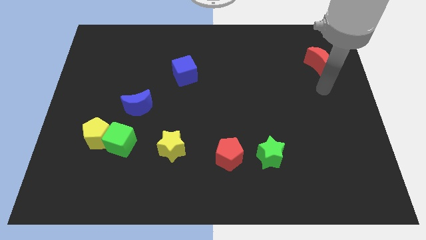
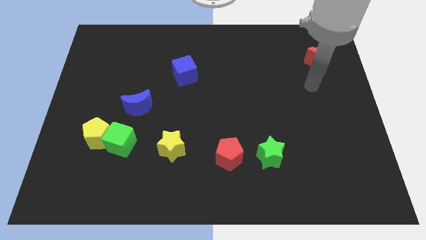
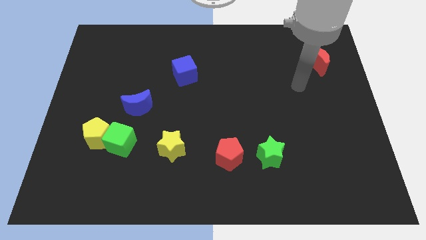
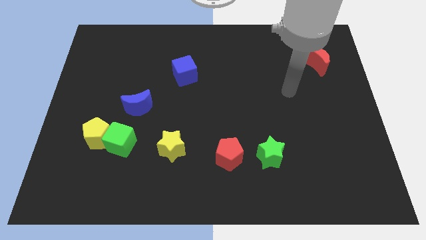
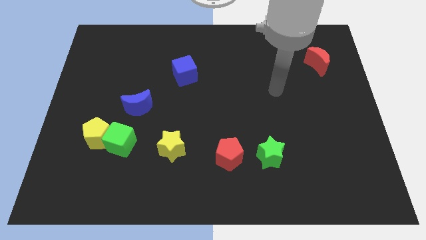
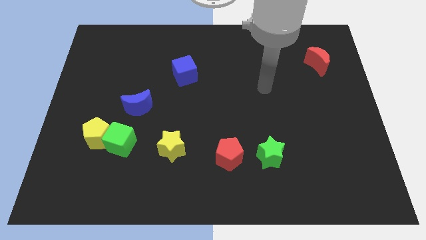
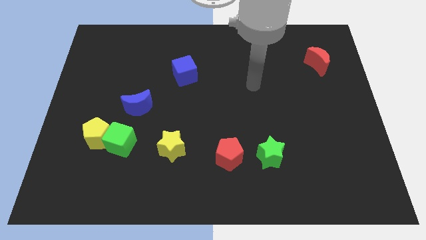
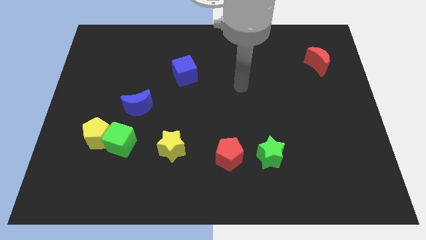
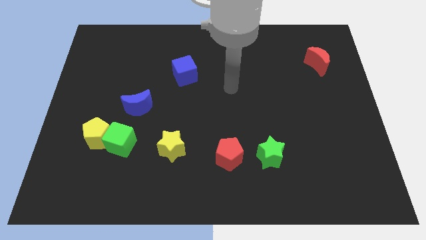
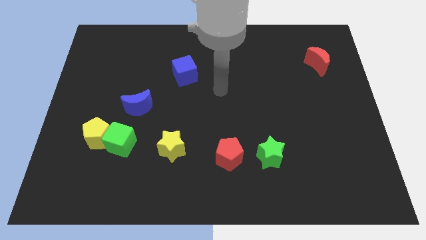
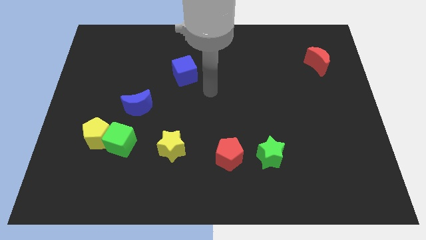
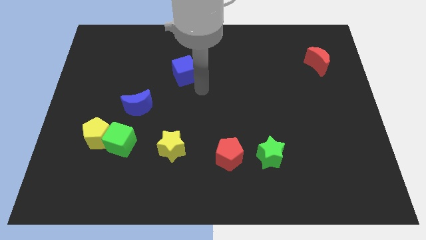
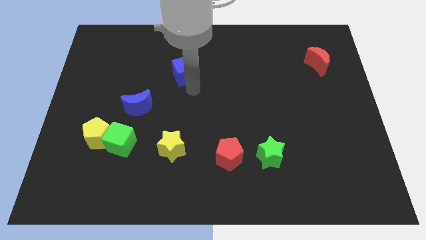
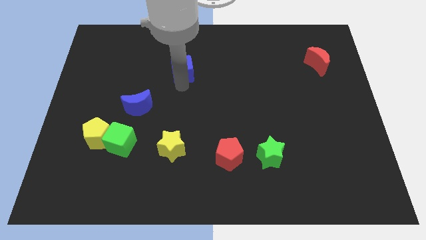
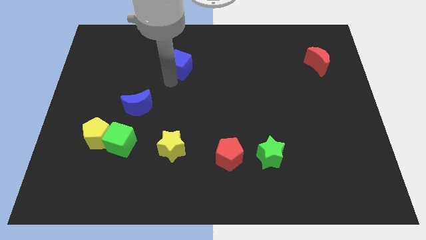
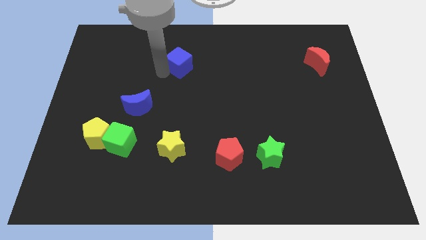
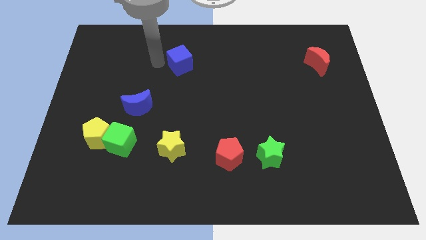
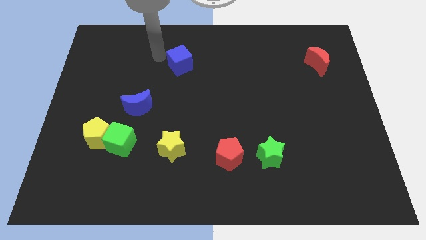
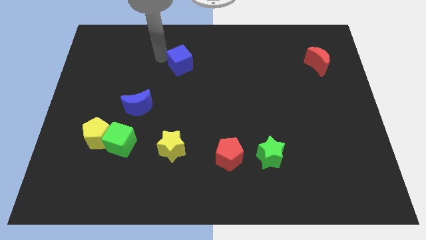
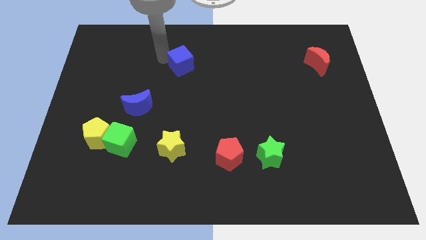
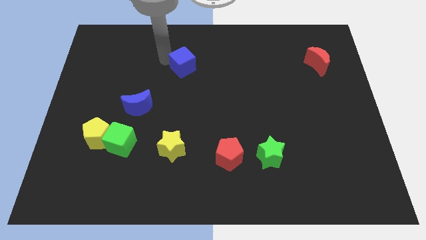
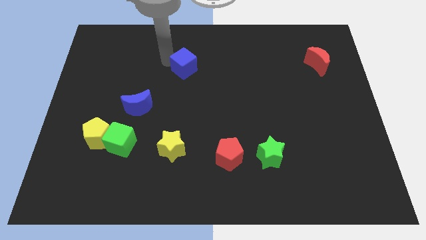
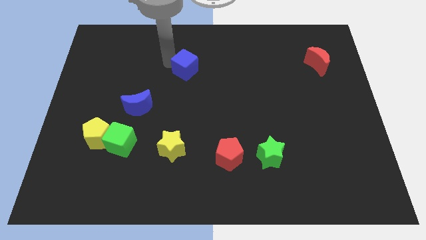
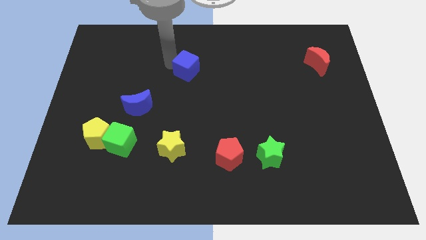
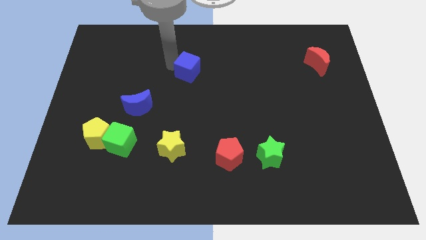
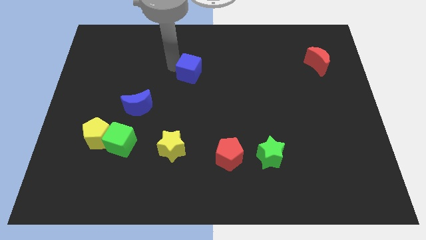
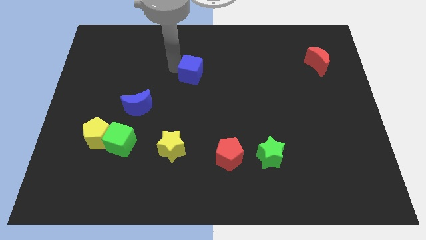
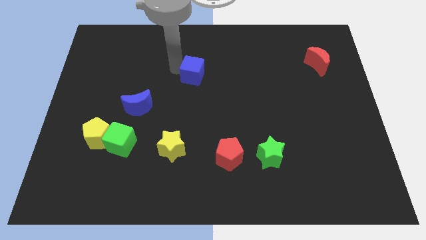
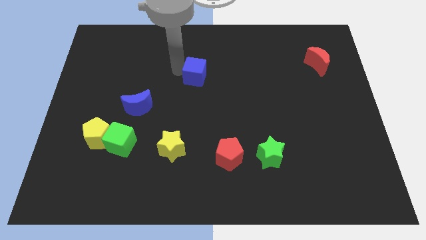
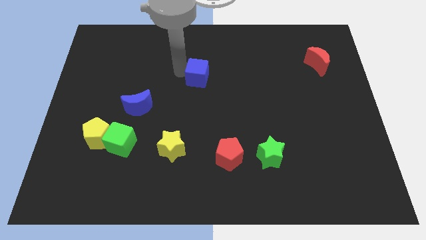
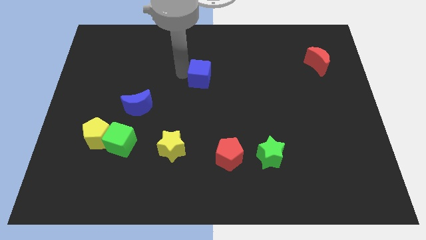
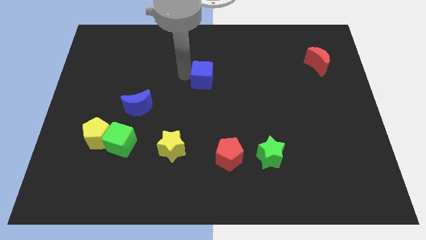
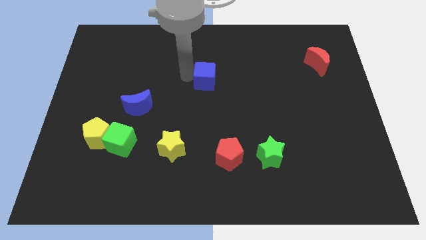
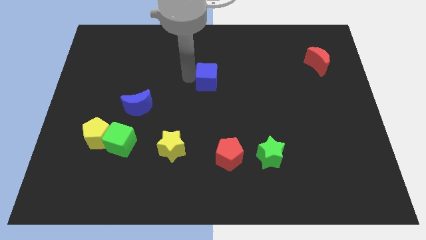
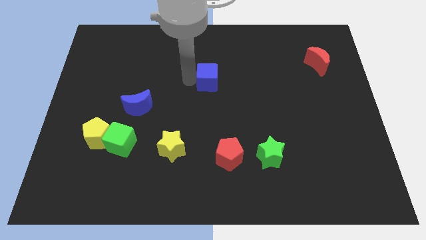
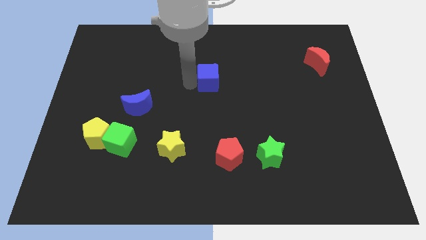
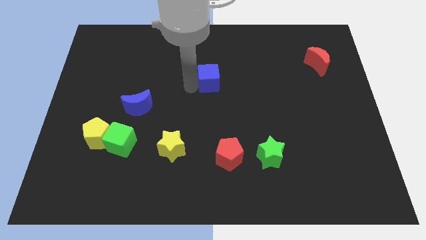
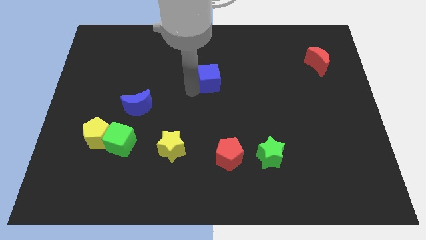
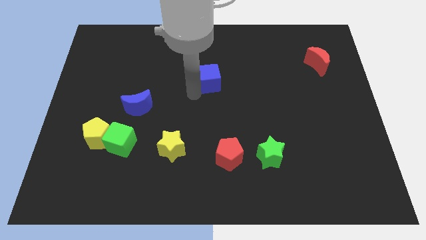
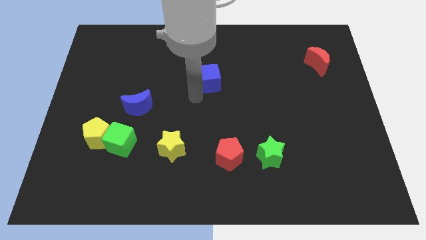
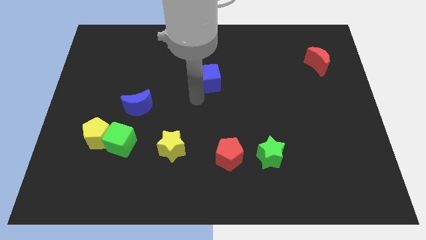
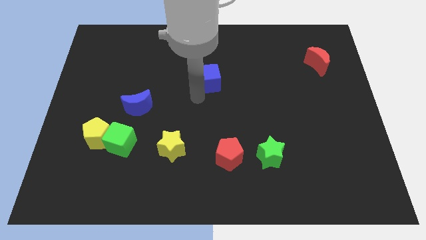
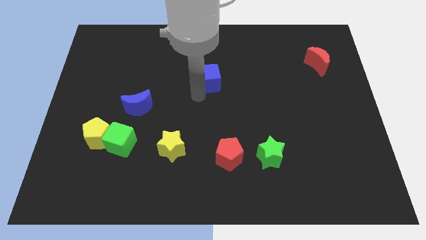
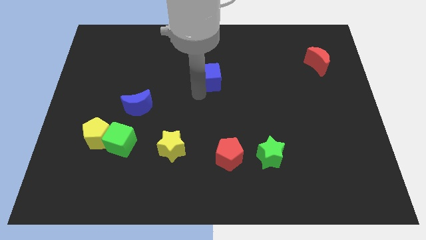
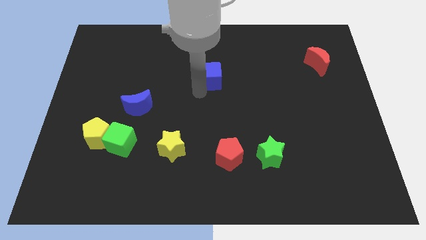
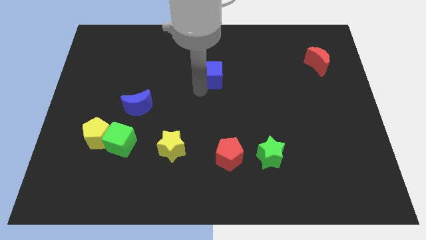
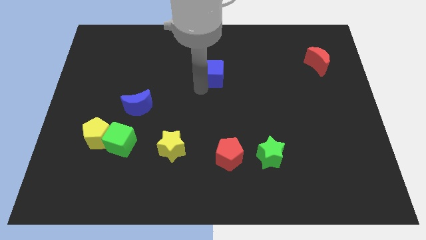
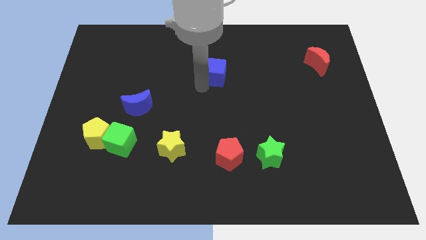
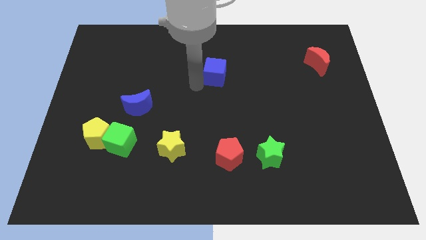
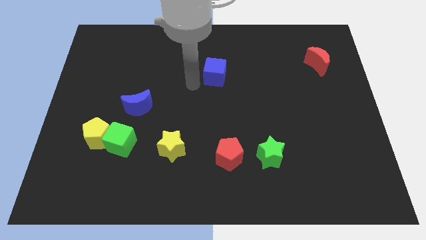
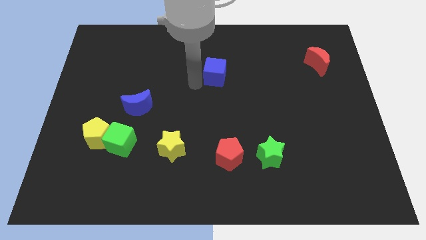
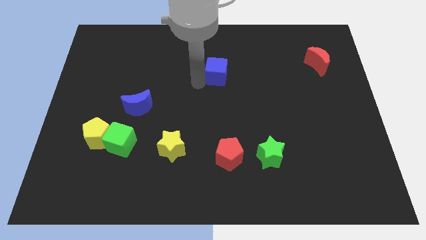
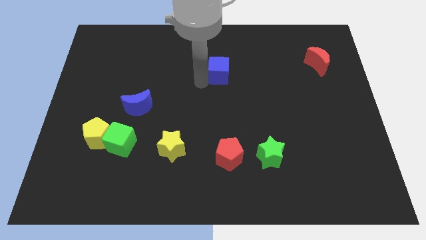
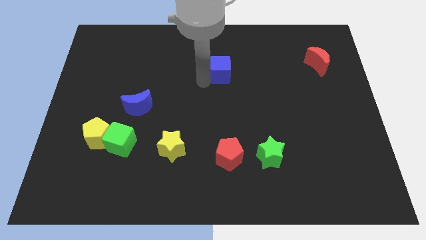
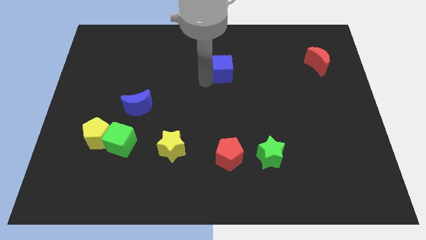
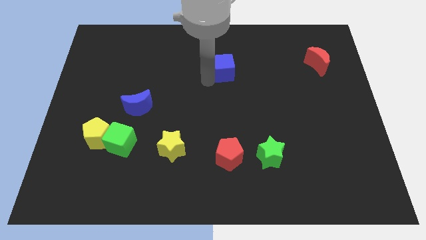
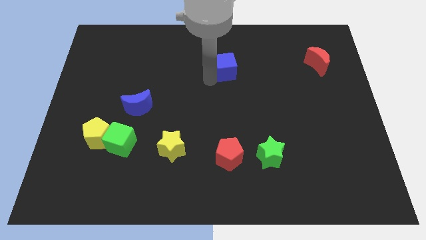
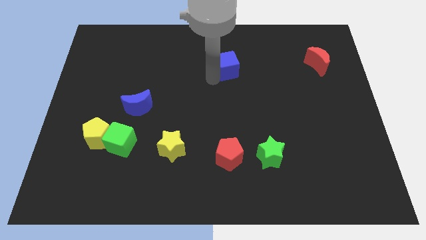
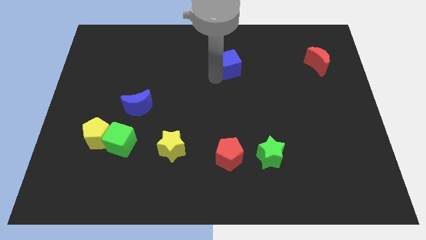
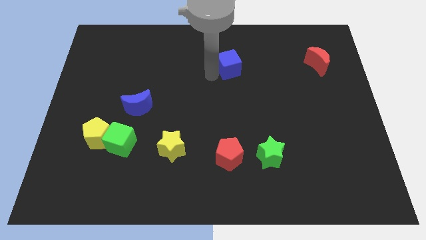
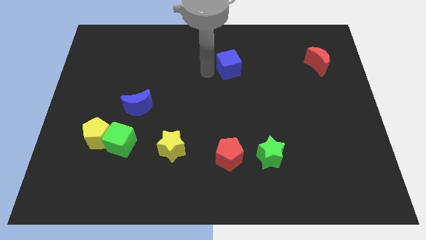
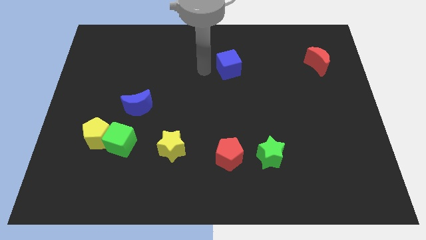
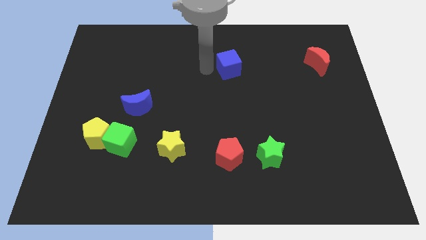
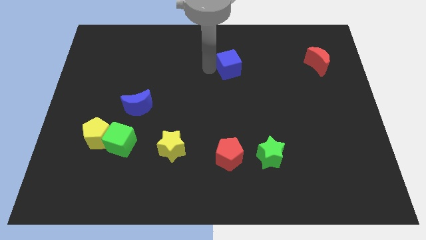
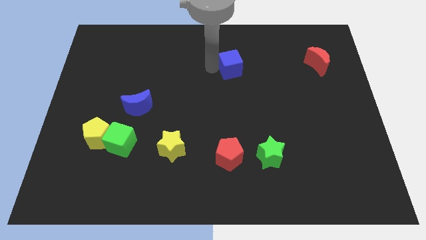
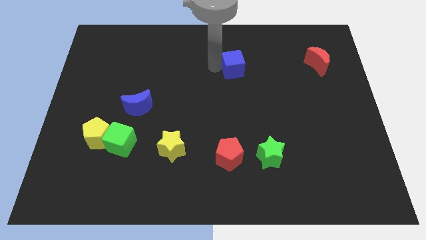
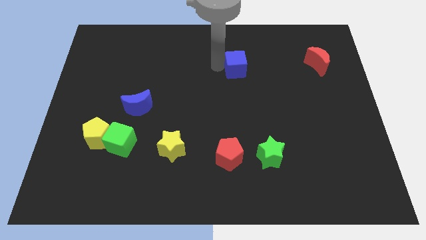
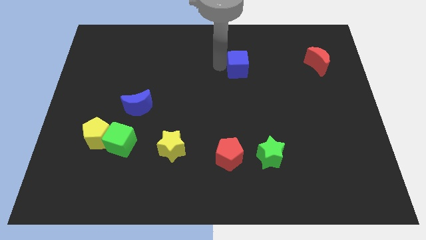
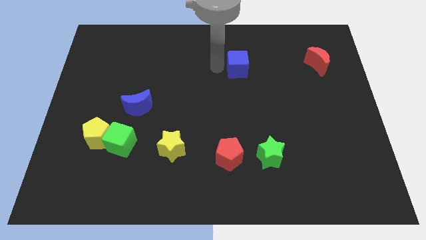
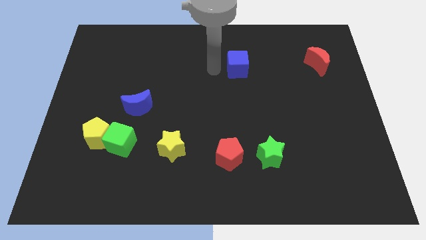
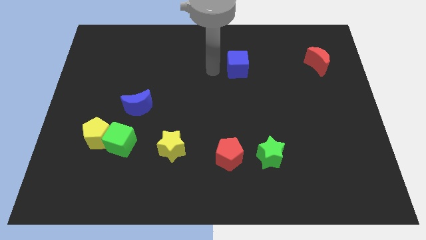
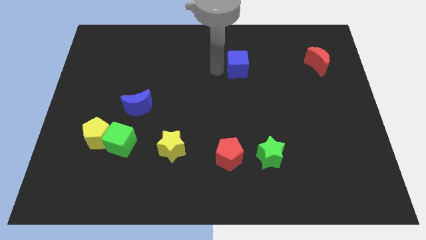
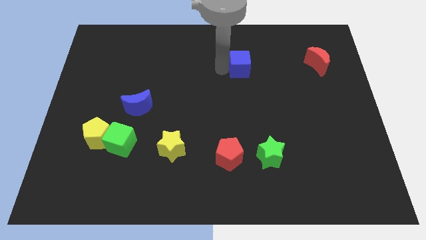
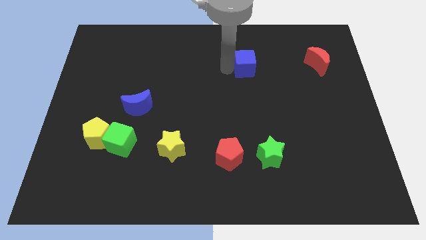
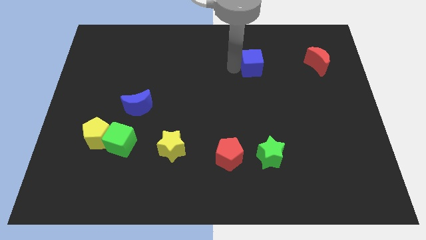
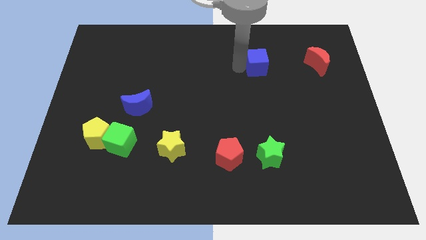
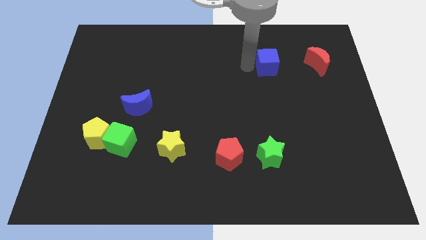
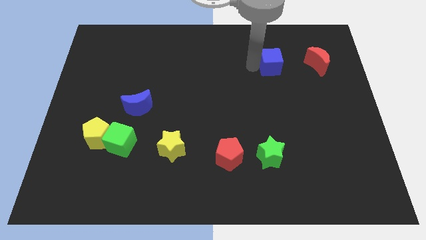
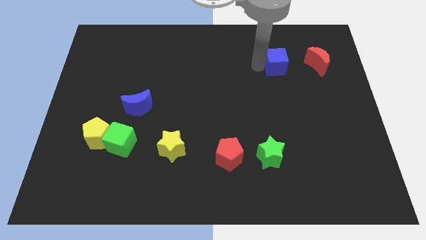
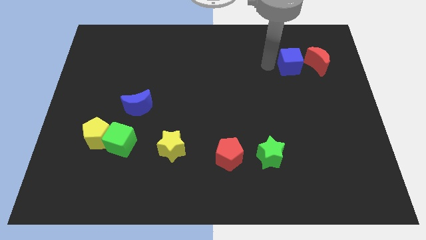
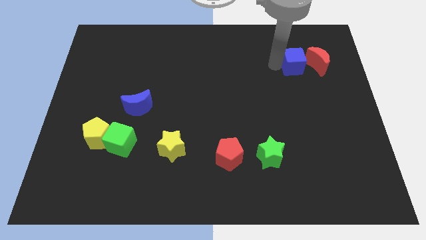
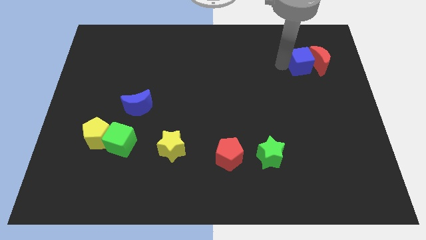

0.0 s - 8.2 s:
put the blue cube towards the red moon
